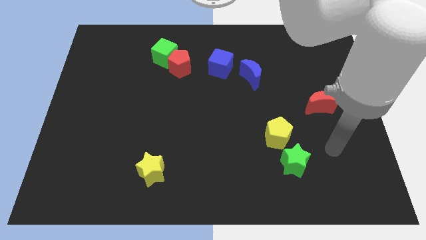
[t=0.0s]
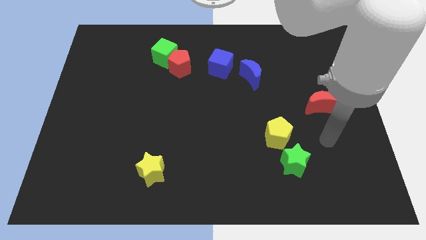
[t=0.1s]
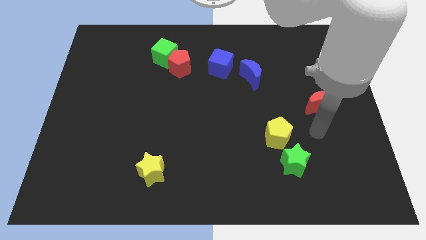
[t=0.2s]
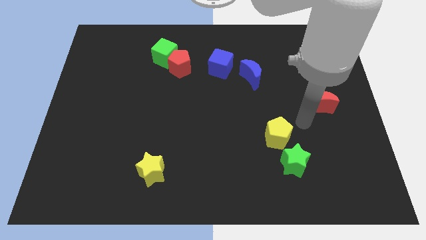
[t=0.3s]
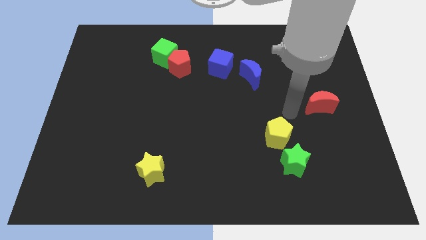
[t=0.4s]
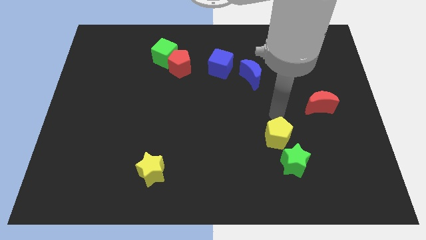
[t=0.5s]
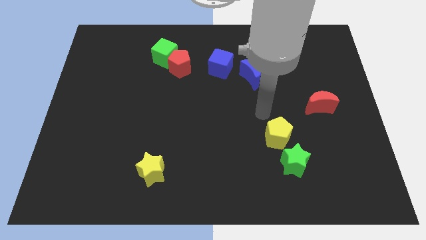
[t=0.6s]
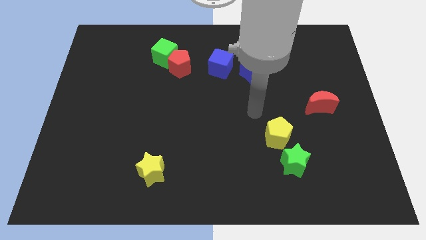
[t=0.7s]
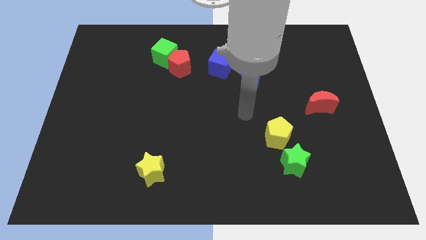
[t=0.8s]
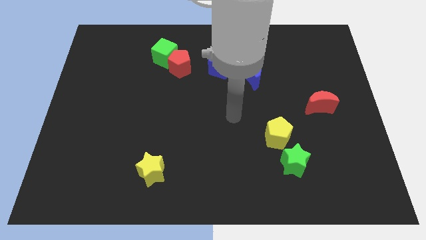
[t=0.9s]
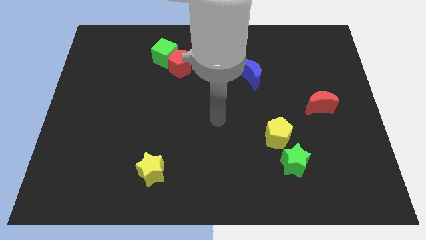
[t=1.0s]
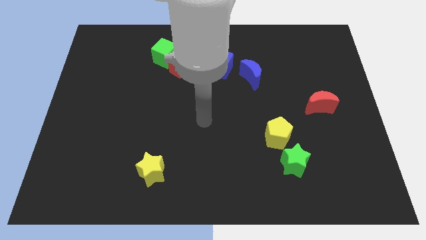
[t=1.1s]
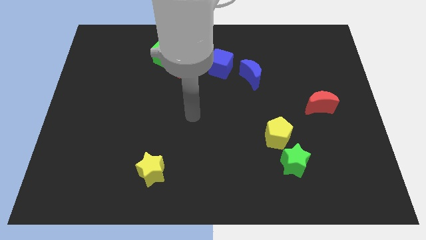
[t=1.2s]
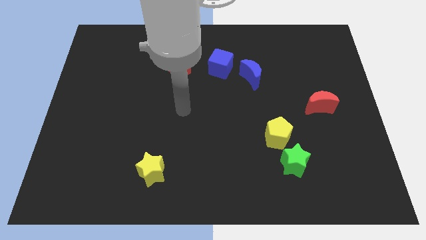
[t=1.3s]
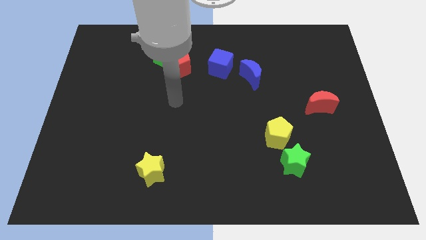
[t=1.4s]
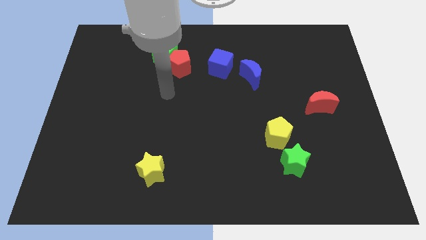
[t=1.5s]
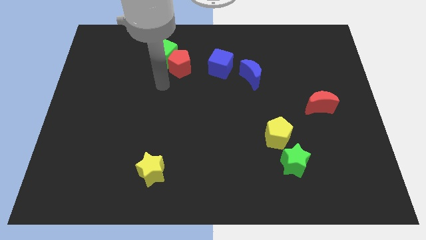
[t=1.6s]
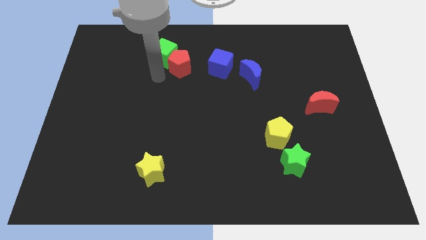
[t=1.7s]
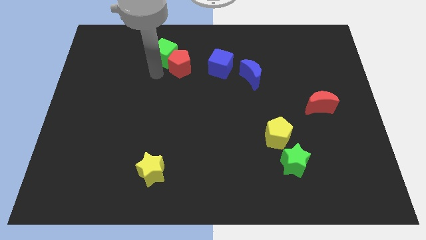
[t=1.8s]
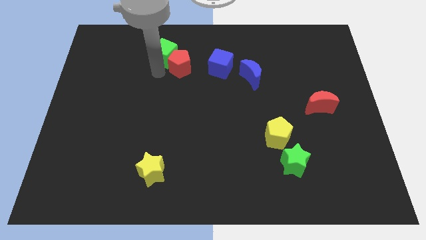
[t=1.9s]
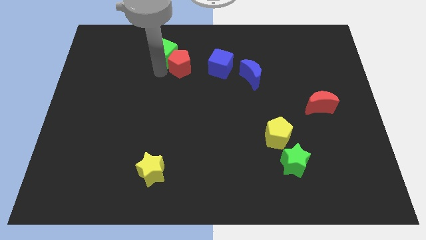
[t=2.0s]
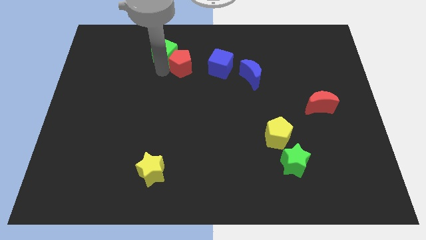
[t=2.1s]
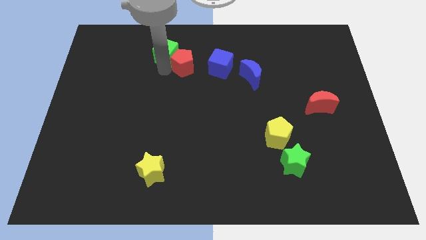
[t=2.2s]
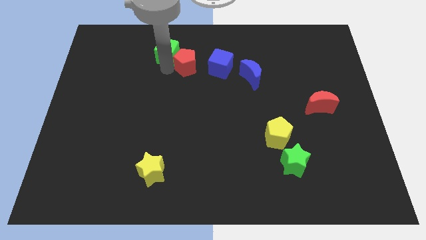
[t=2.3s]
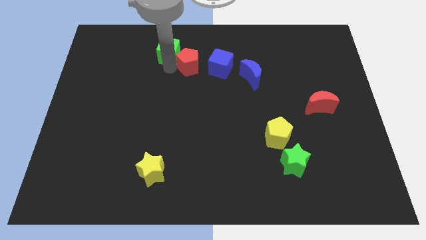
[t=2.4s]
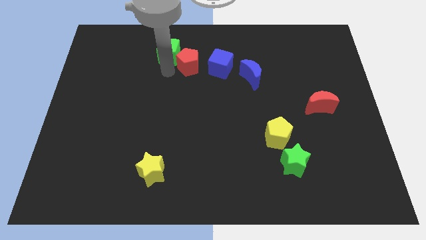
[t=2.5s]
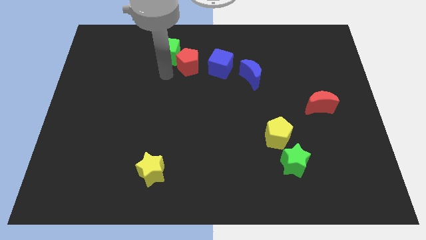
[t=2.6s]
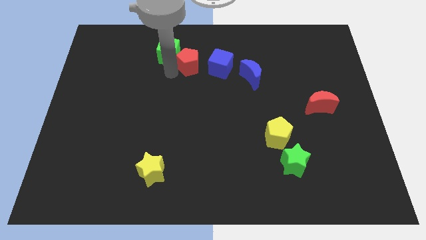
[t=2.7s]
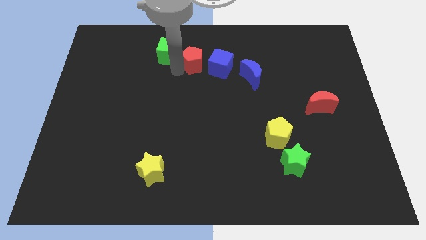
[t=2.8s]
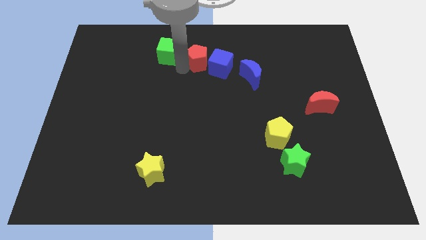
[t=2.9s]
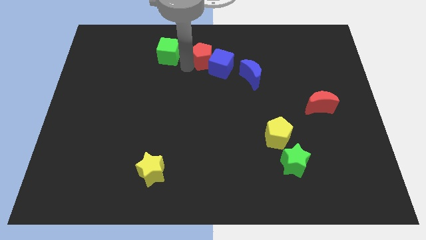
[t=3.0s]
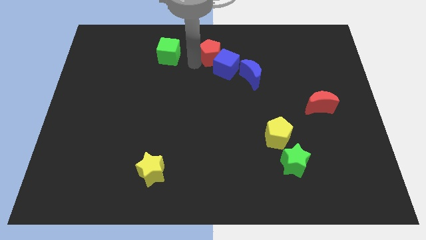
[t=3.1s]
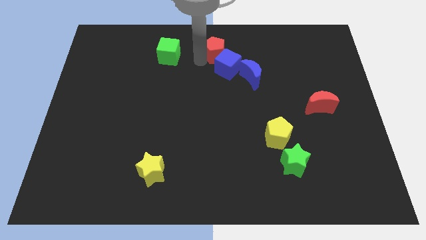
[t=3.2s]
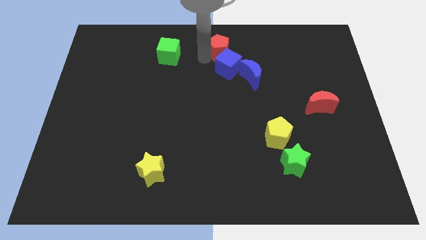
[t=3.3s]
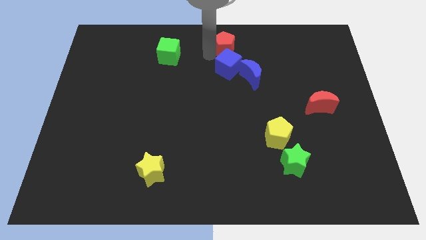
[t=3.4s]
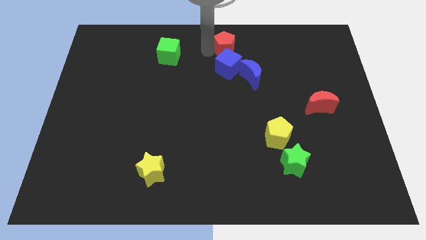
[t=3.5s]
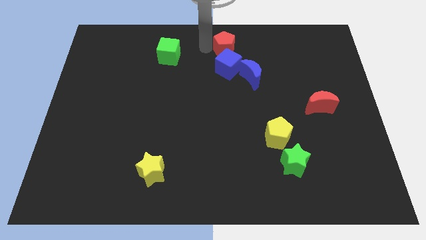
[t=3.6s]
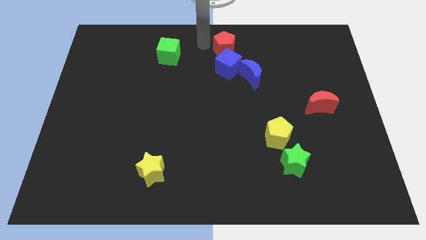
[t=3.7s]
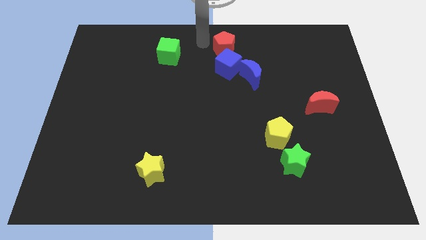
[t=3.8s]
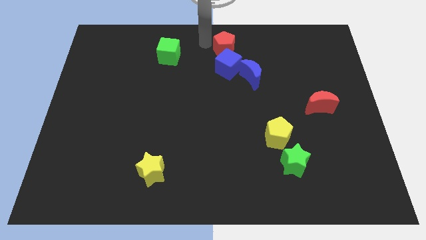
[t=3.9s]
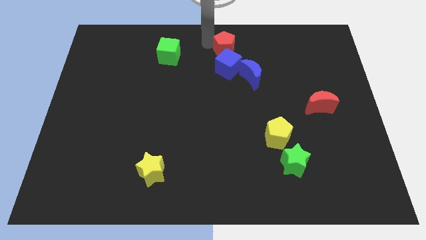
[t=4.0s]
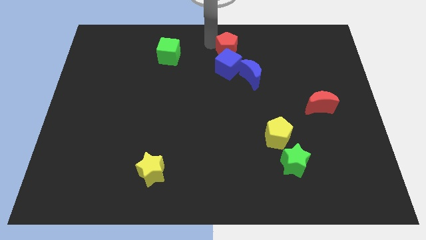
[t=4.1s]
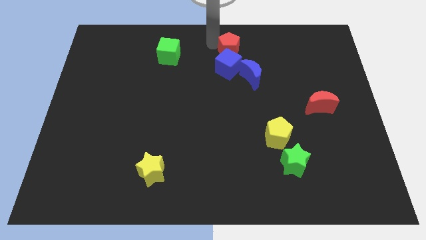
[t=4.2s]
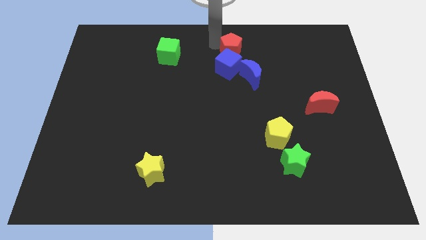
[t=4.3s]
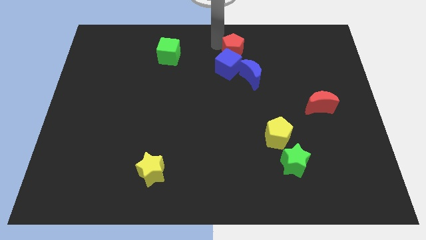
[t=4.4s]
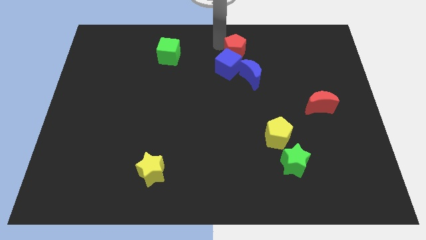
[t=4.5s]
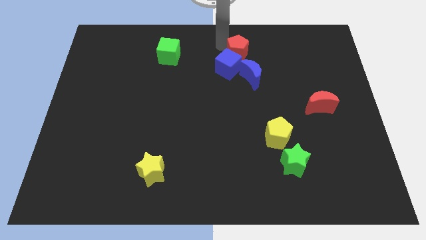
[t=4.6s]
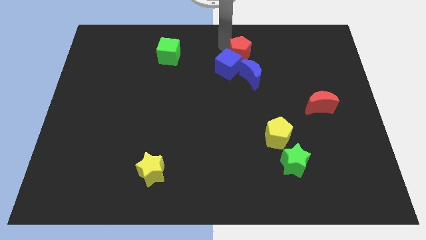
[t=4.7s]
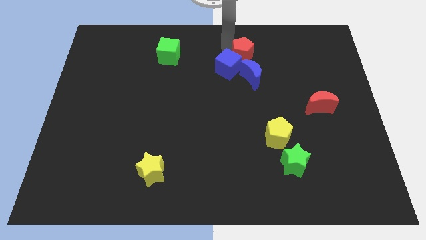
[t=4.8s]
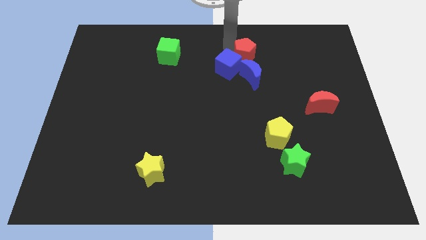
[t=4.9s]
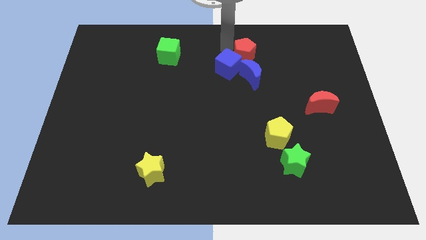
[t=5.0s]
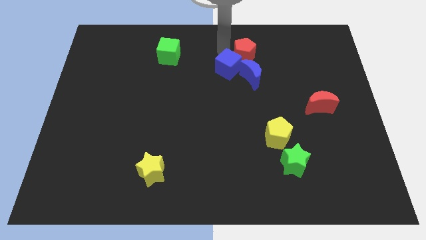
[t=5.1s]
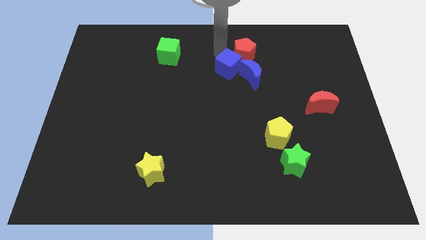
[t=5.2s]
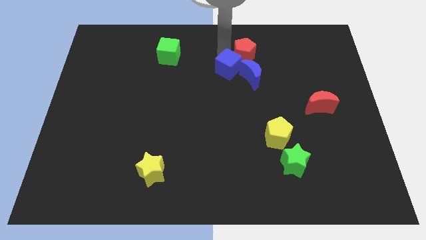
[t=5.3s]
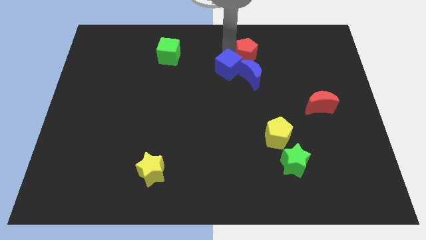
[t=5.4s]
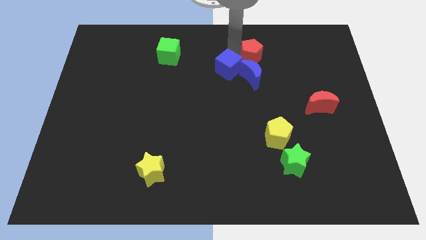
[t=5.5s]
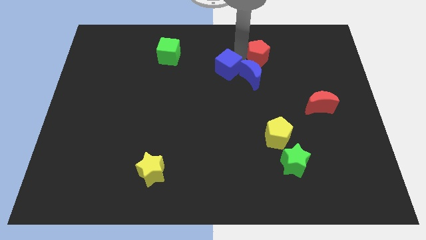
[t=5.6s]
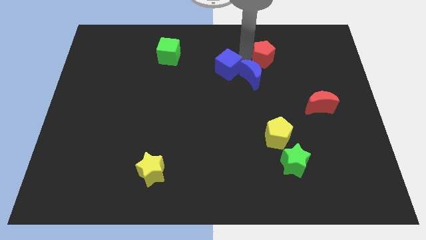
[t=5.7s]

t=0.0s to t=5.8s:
move the red pentagon right

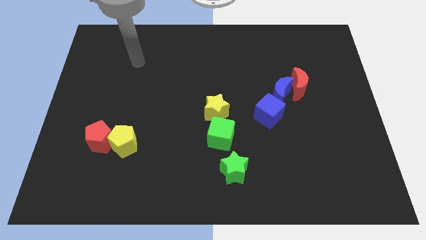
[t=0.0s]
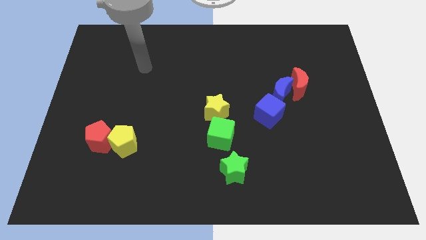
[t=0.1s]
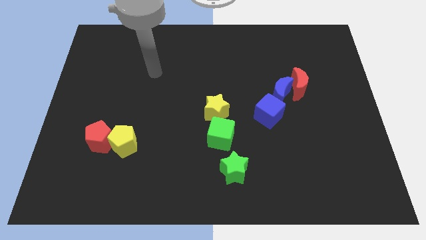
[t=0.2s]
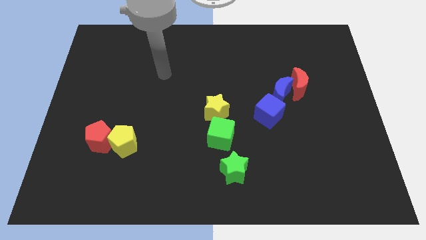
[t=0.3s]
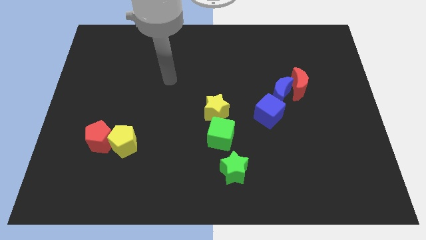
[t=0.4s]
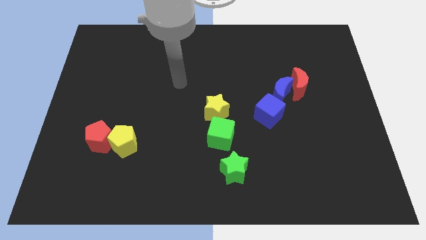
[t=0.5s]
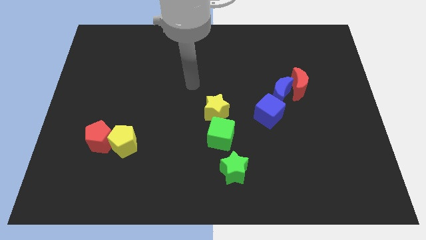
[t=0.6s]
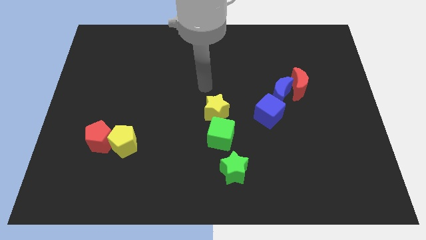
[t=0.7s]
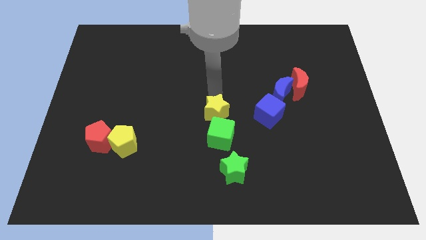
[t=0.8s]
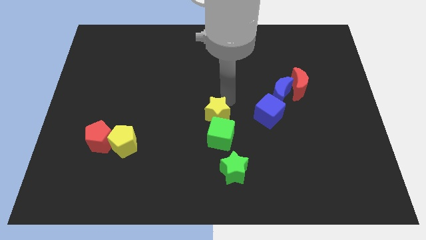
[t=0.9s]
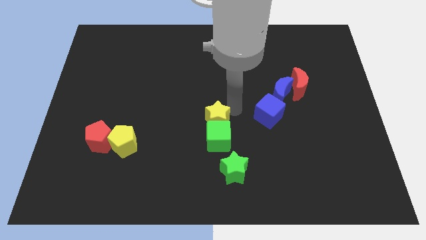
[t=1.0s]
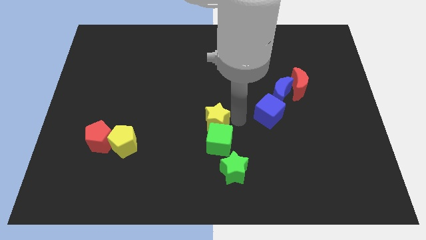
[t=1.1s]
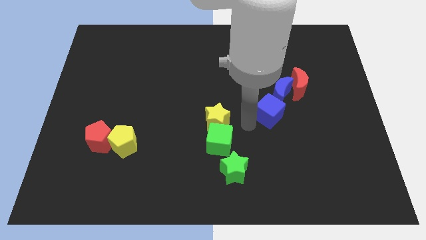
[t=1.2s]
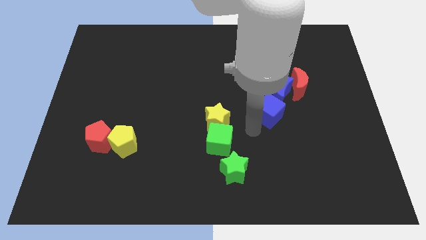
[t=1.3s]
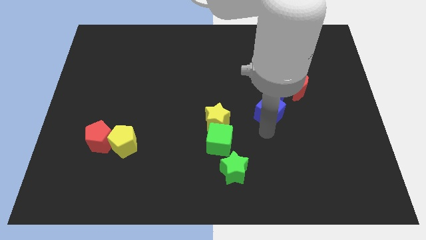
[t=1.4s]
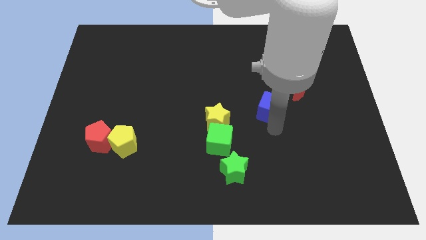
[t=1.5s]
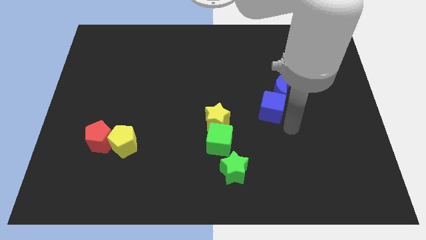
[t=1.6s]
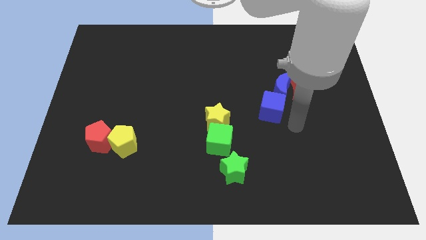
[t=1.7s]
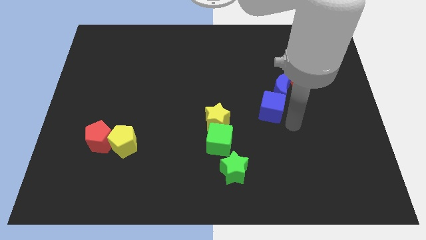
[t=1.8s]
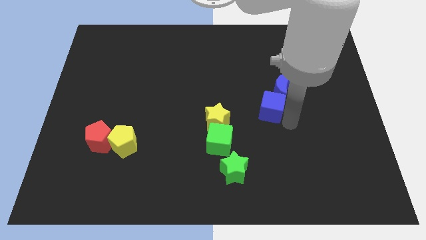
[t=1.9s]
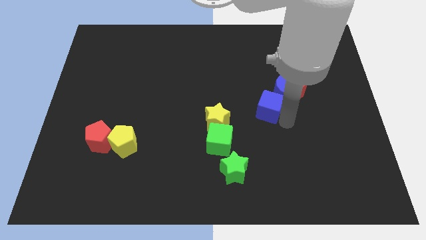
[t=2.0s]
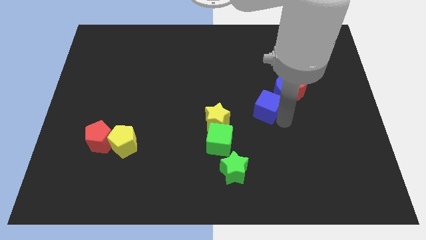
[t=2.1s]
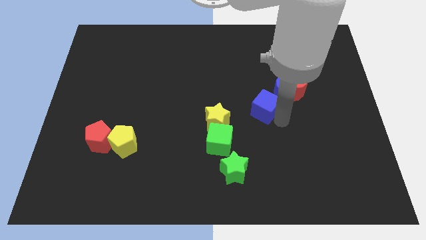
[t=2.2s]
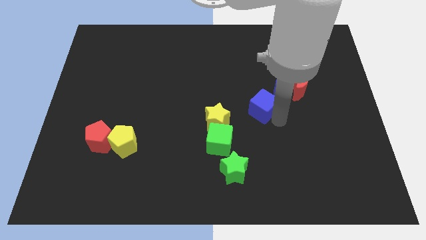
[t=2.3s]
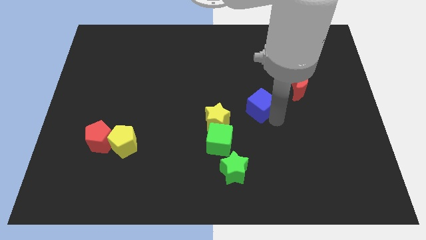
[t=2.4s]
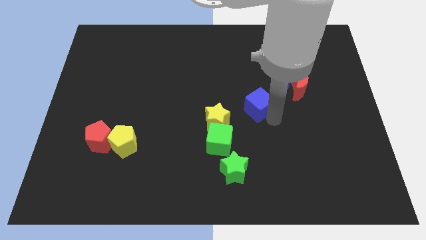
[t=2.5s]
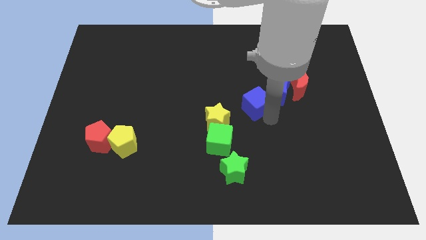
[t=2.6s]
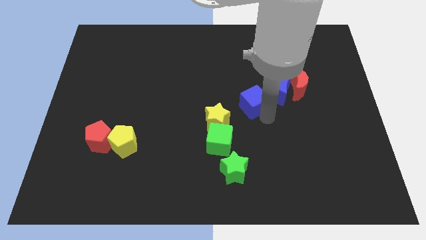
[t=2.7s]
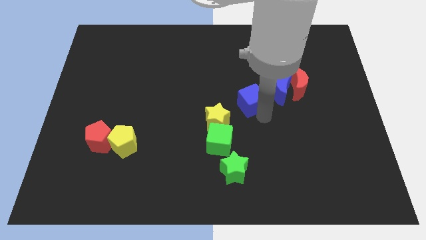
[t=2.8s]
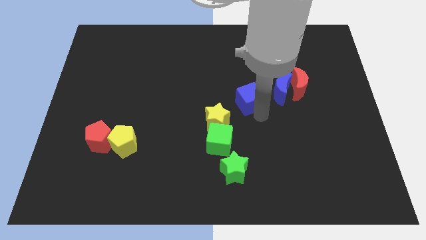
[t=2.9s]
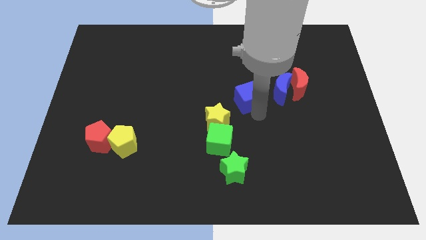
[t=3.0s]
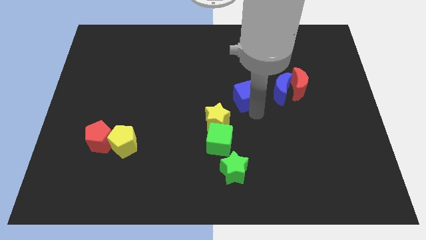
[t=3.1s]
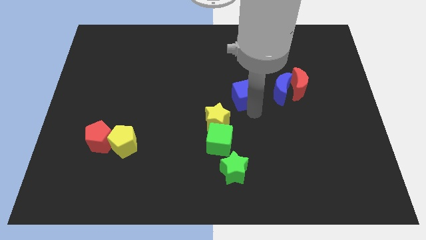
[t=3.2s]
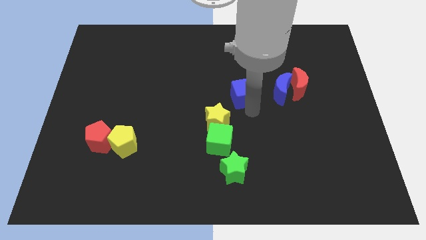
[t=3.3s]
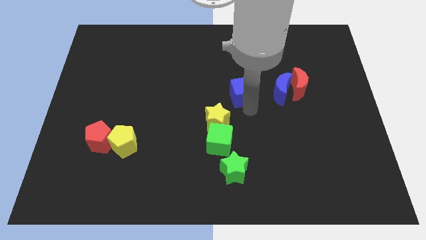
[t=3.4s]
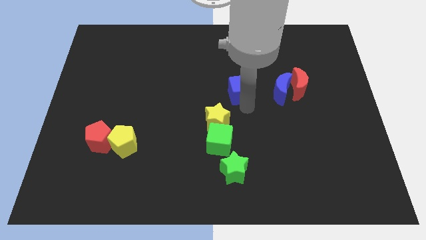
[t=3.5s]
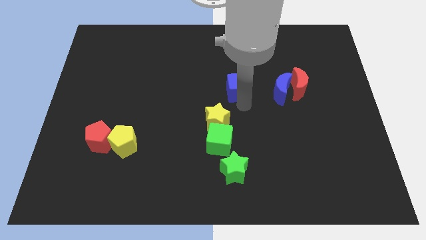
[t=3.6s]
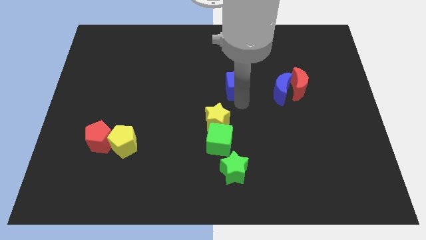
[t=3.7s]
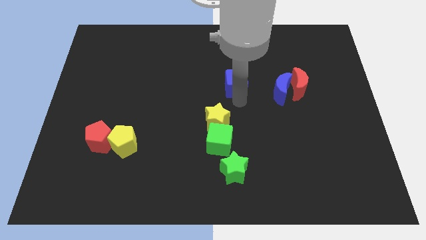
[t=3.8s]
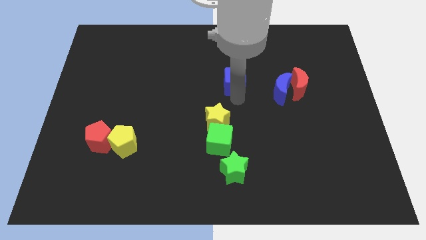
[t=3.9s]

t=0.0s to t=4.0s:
slightly push the blue cube upwards
